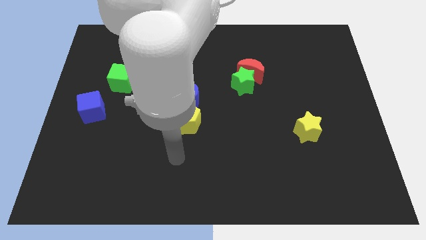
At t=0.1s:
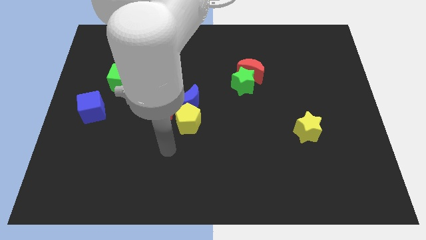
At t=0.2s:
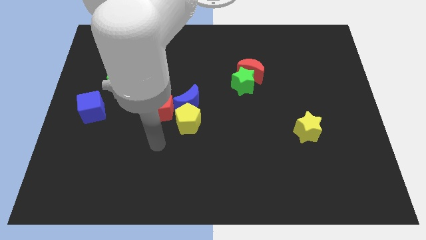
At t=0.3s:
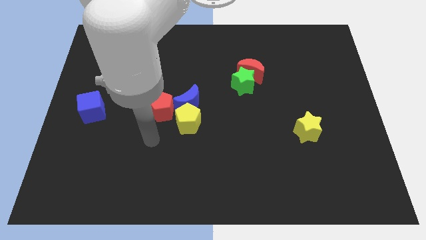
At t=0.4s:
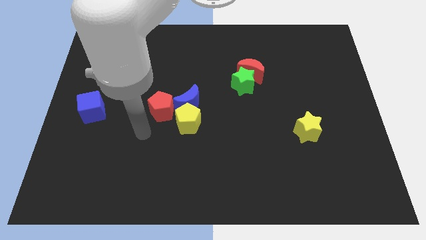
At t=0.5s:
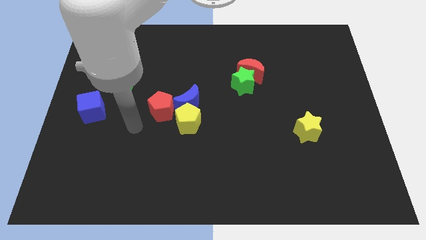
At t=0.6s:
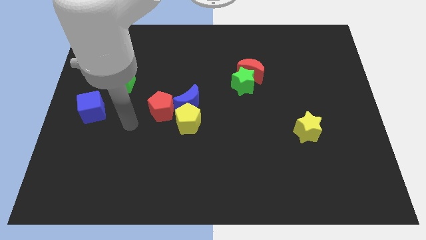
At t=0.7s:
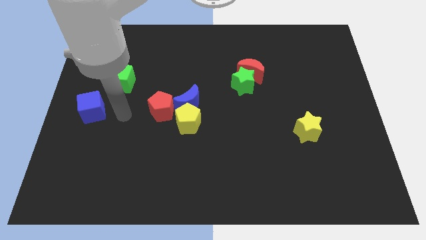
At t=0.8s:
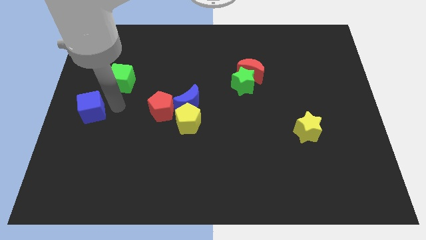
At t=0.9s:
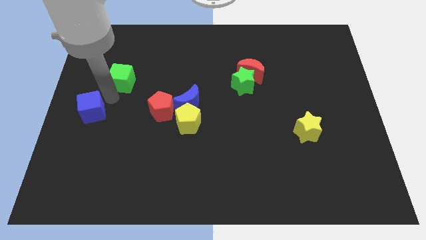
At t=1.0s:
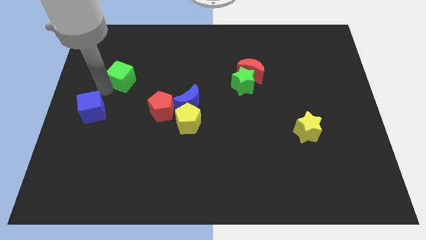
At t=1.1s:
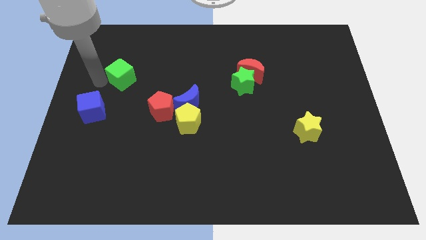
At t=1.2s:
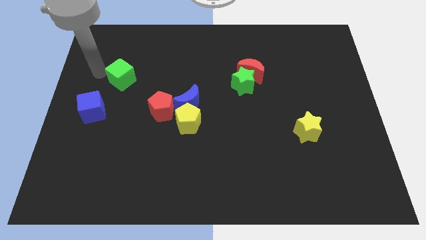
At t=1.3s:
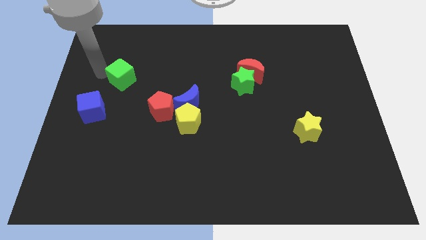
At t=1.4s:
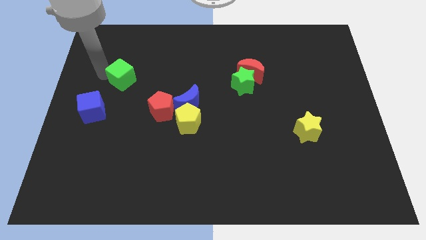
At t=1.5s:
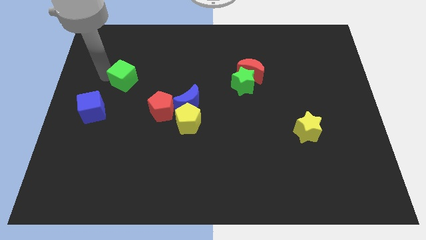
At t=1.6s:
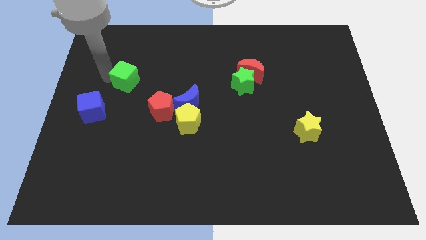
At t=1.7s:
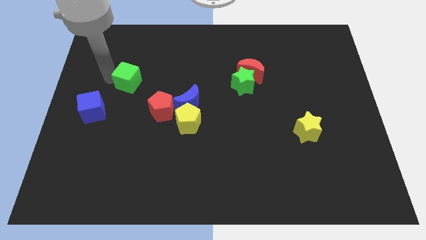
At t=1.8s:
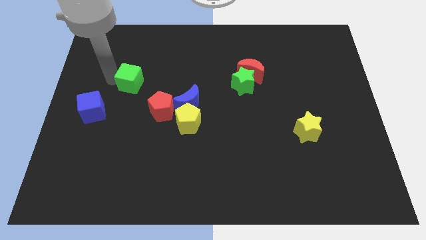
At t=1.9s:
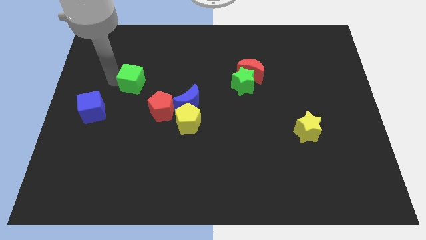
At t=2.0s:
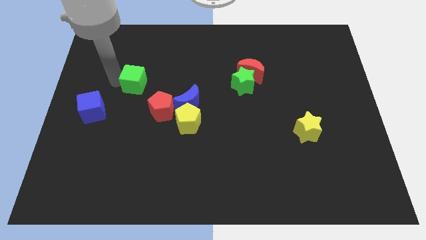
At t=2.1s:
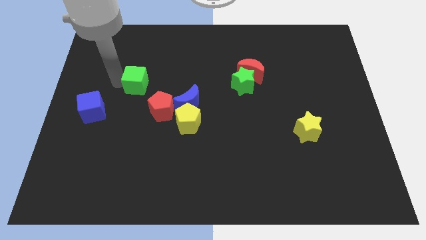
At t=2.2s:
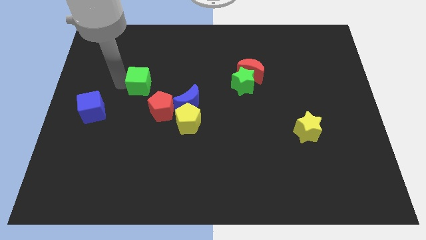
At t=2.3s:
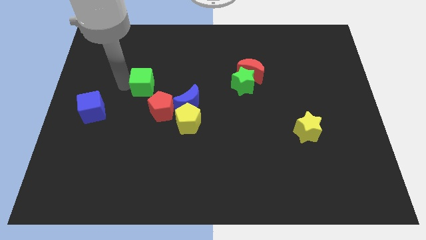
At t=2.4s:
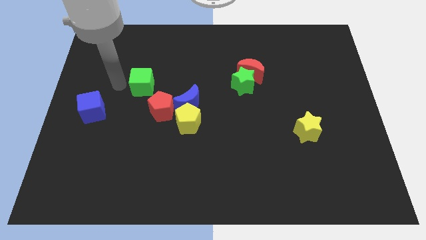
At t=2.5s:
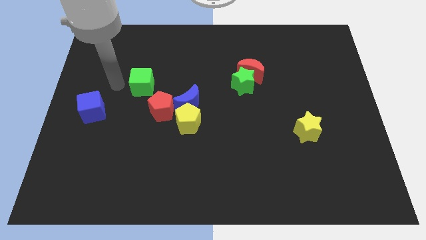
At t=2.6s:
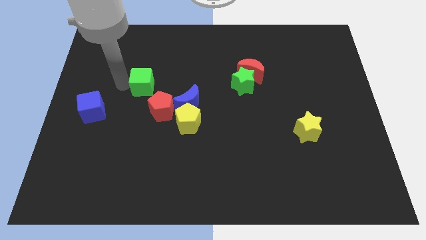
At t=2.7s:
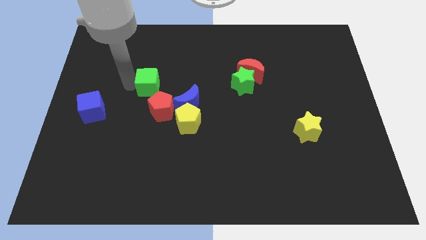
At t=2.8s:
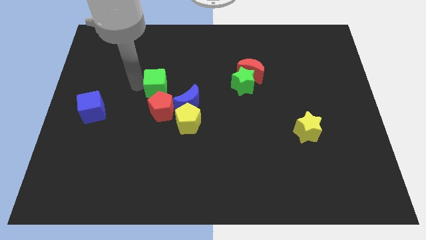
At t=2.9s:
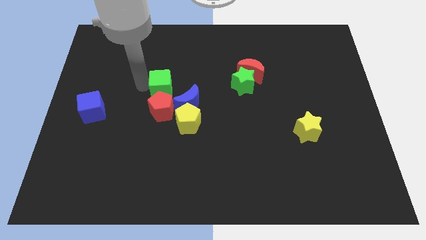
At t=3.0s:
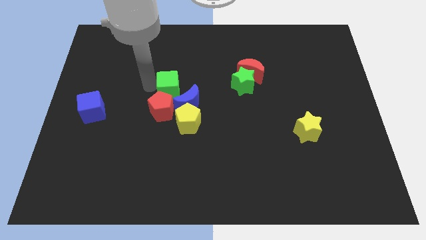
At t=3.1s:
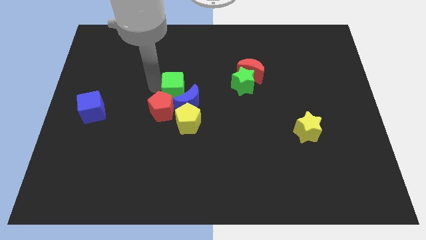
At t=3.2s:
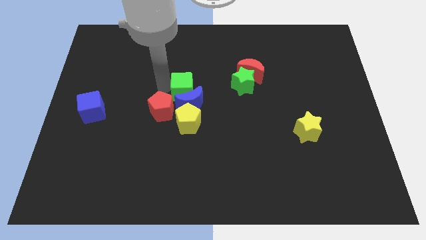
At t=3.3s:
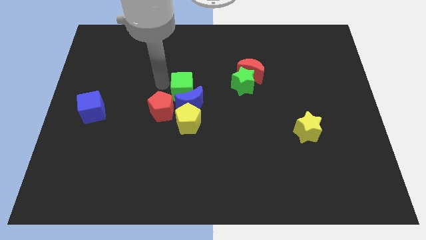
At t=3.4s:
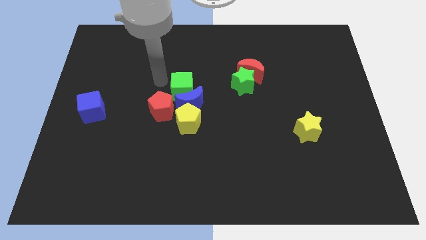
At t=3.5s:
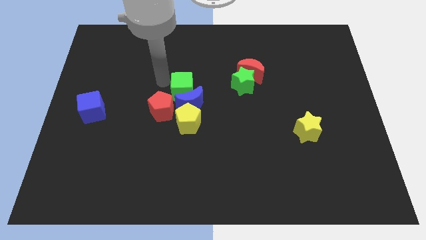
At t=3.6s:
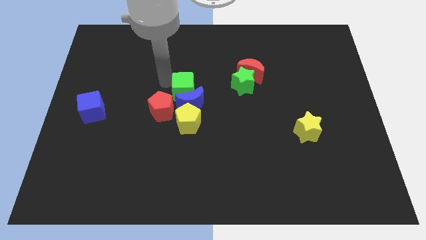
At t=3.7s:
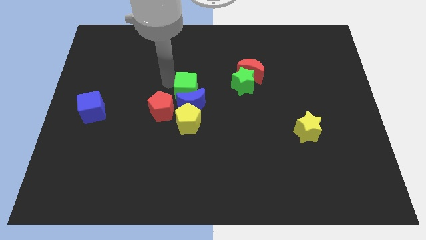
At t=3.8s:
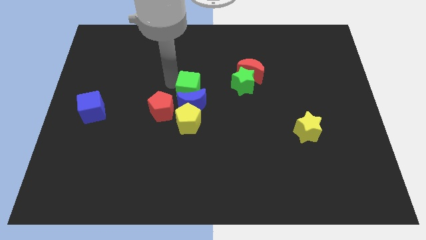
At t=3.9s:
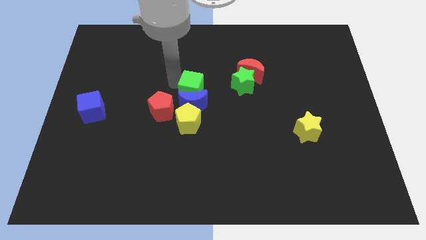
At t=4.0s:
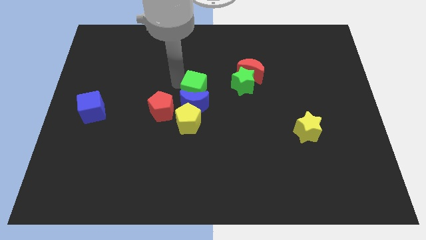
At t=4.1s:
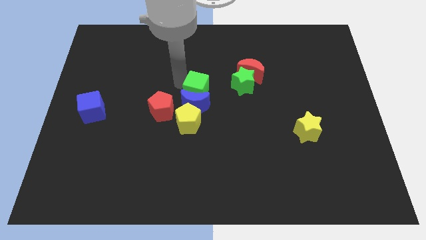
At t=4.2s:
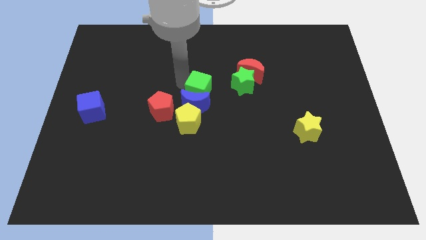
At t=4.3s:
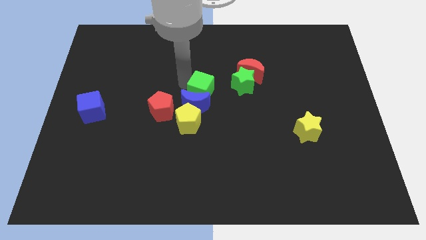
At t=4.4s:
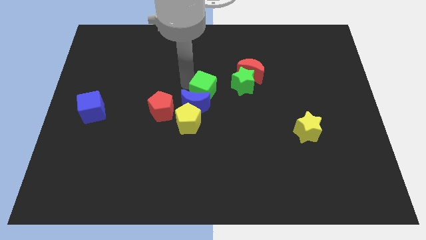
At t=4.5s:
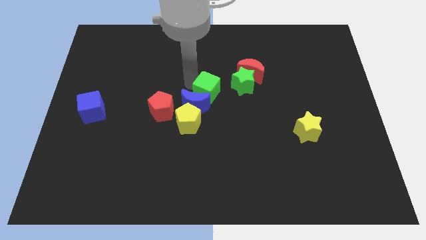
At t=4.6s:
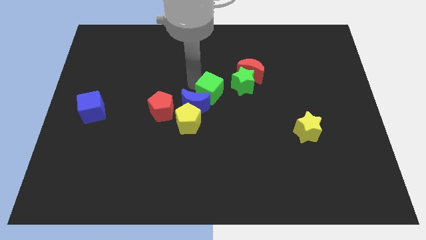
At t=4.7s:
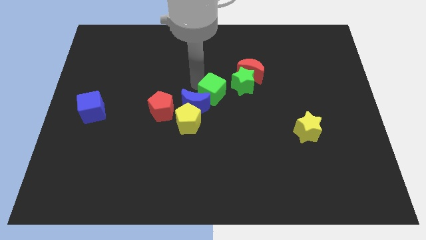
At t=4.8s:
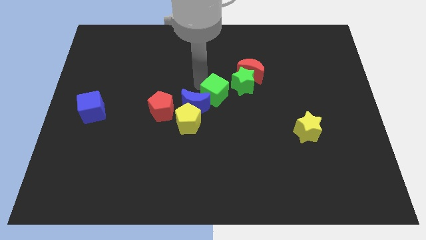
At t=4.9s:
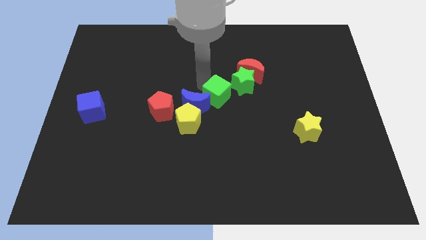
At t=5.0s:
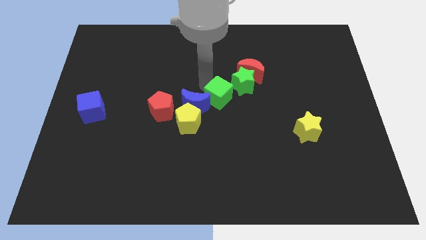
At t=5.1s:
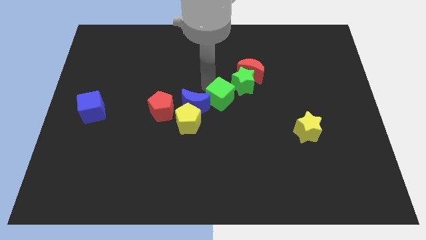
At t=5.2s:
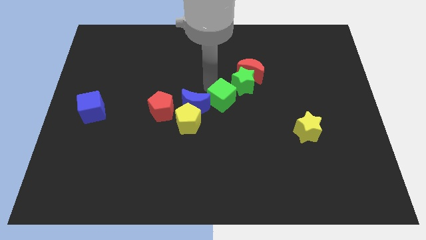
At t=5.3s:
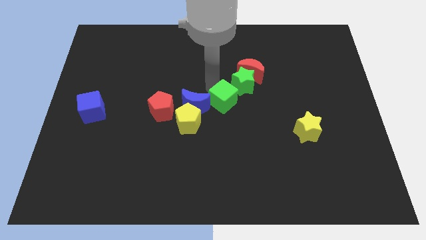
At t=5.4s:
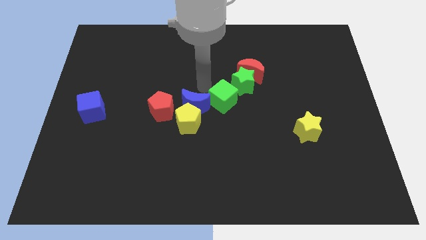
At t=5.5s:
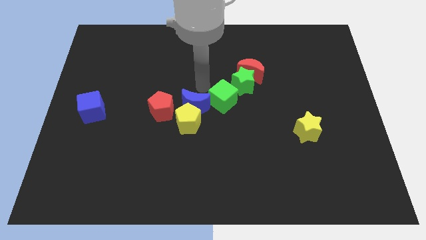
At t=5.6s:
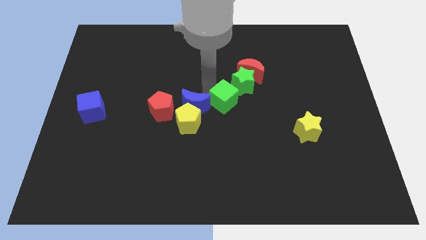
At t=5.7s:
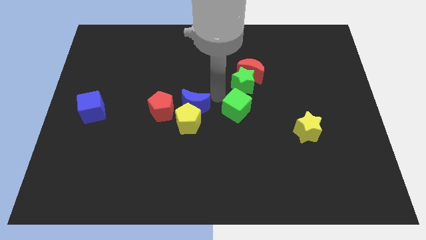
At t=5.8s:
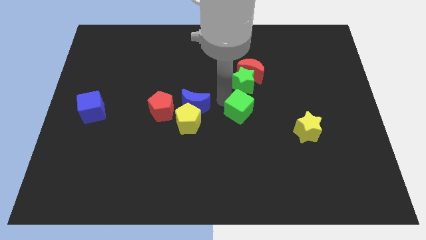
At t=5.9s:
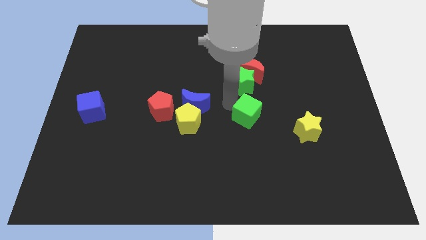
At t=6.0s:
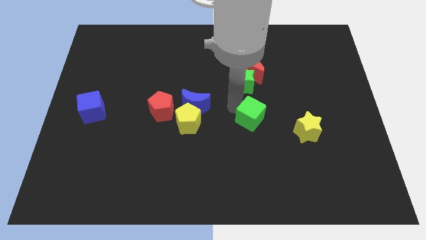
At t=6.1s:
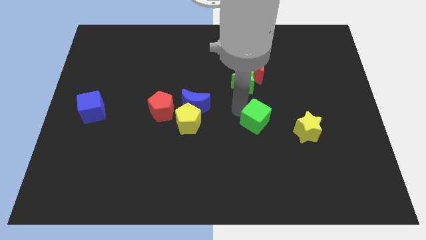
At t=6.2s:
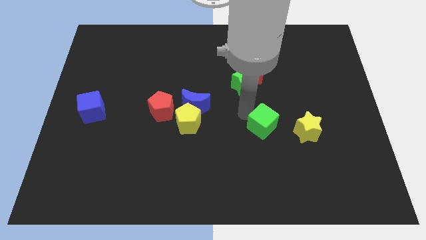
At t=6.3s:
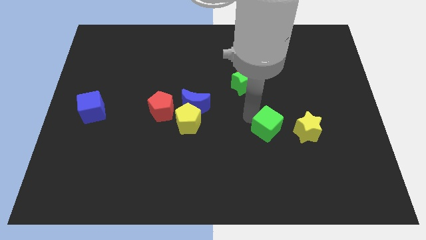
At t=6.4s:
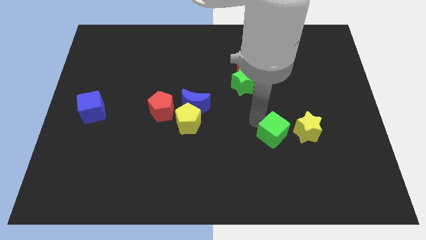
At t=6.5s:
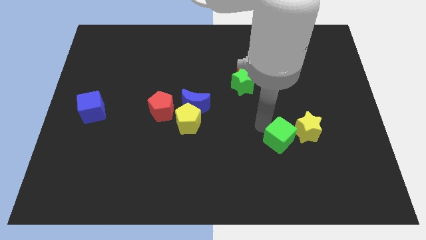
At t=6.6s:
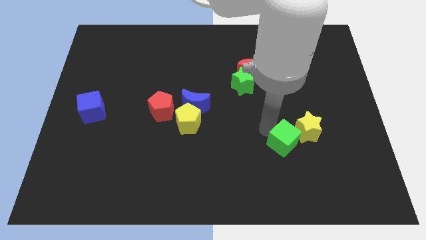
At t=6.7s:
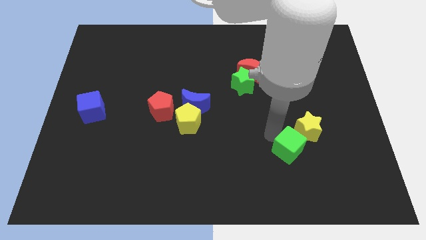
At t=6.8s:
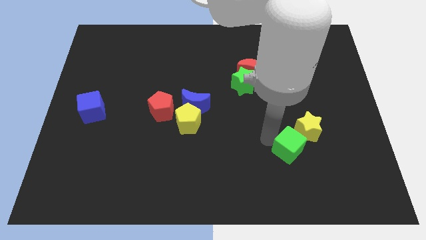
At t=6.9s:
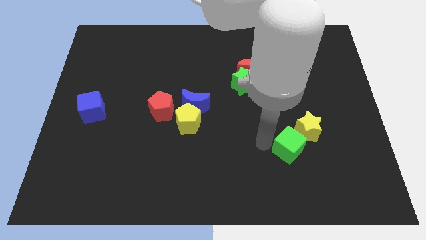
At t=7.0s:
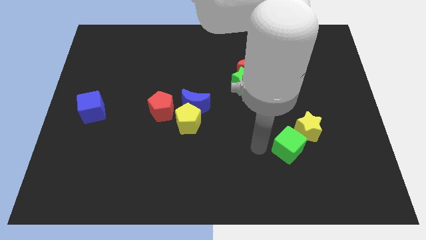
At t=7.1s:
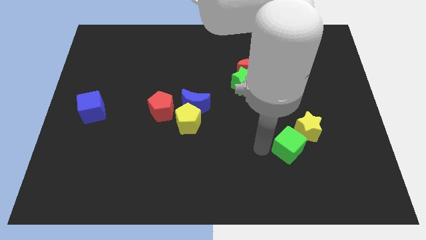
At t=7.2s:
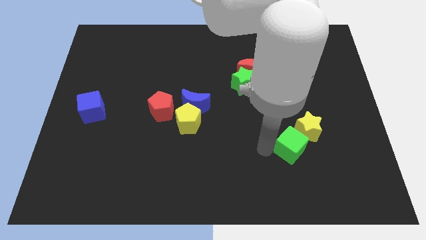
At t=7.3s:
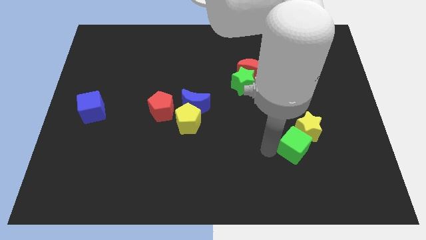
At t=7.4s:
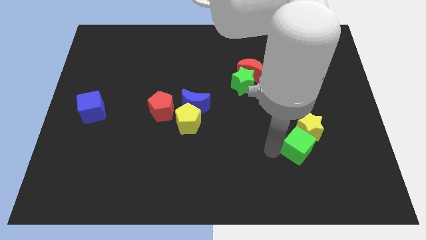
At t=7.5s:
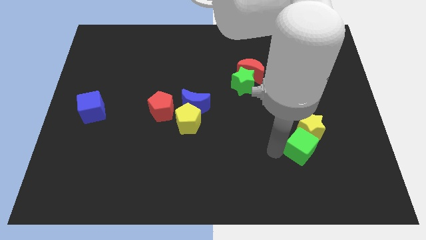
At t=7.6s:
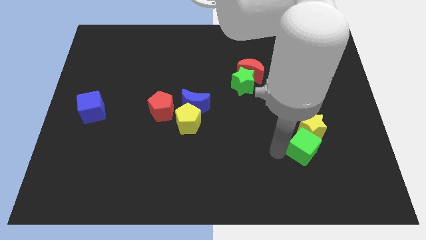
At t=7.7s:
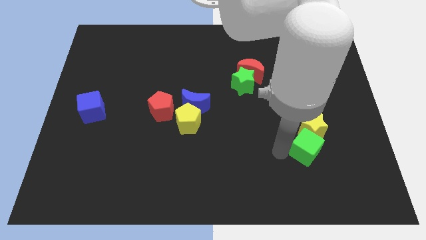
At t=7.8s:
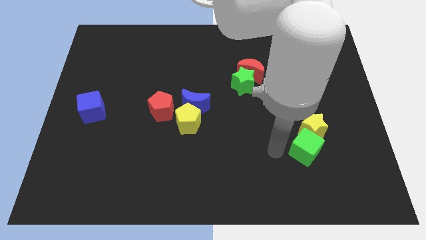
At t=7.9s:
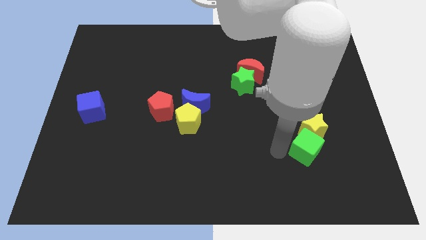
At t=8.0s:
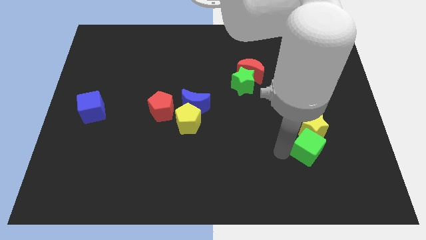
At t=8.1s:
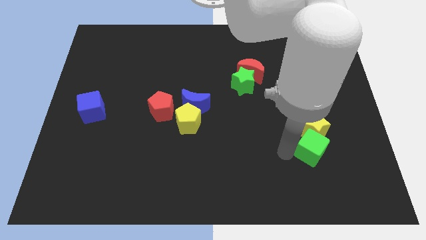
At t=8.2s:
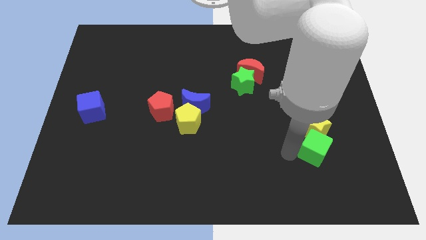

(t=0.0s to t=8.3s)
slide the green cube diagonally down and to the right of the yellow star
